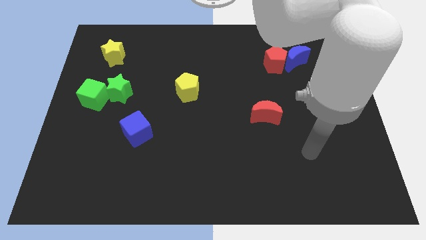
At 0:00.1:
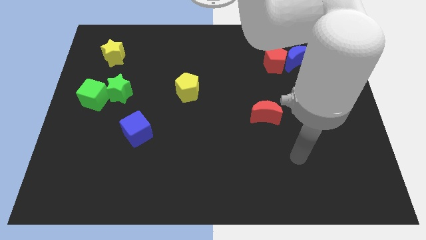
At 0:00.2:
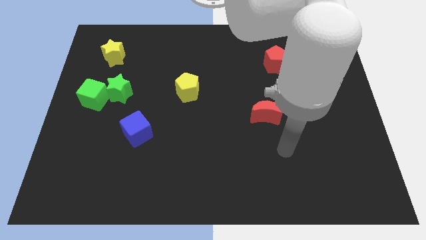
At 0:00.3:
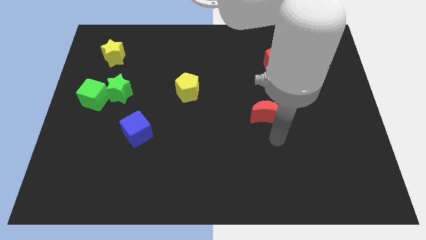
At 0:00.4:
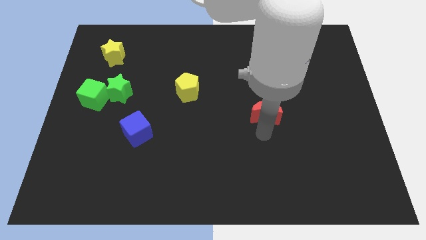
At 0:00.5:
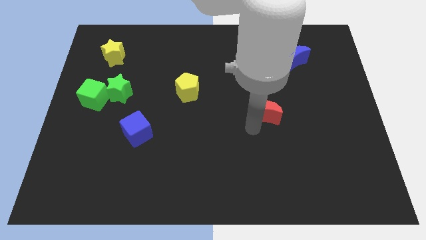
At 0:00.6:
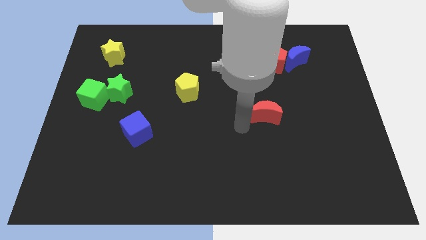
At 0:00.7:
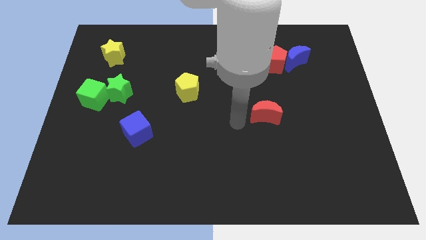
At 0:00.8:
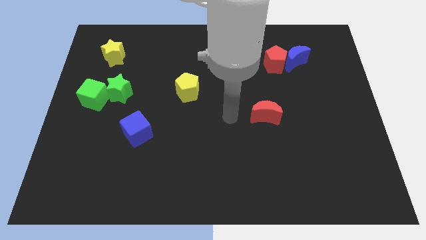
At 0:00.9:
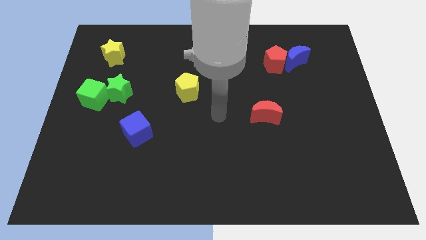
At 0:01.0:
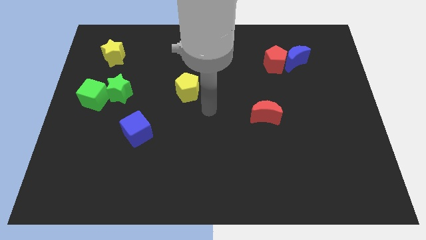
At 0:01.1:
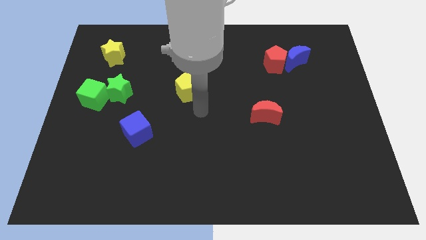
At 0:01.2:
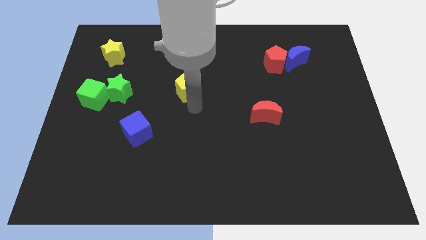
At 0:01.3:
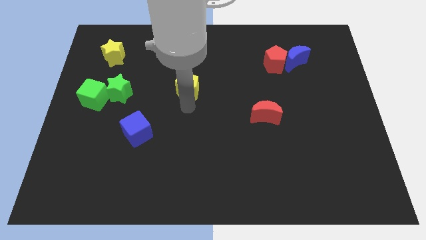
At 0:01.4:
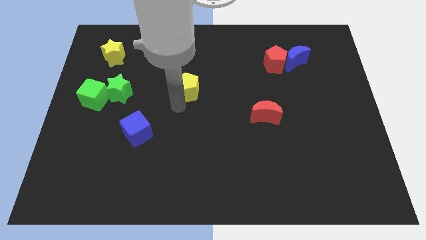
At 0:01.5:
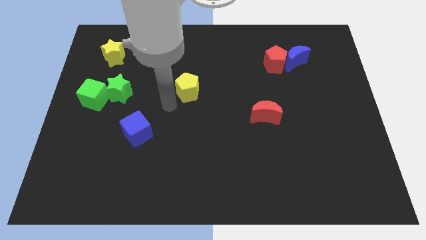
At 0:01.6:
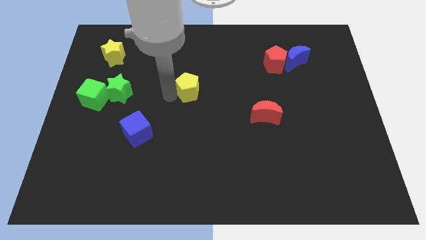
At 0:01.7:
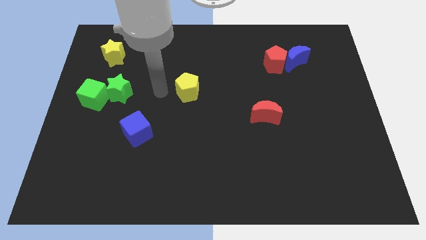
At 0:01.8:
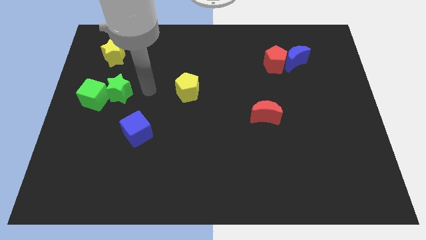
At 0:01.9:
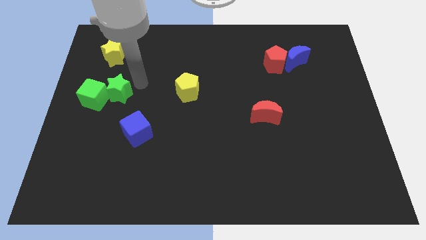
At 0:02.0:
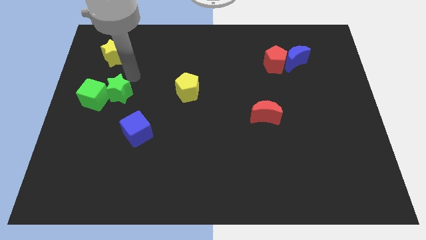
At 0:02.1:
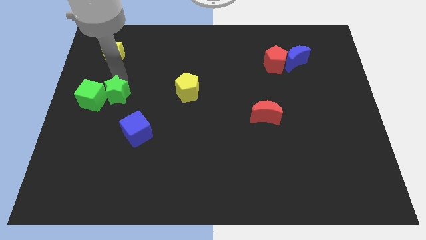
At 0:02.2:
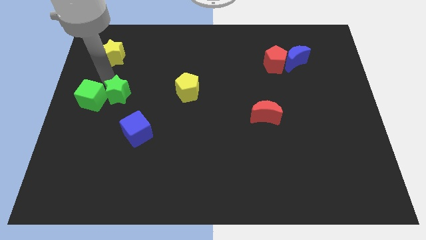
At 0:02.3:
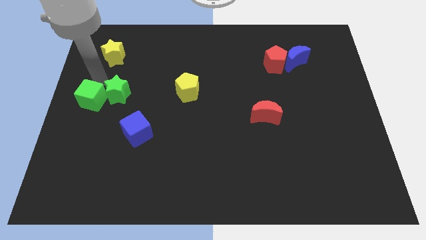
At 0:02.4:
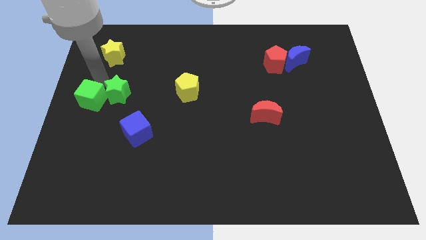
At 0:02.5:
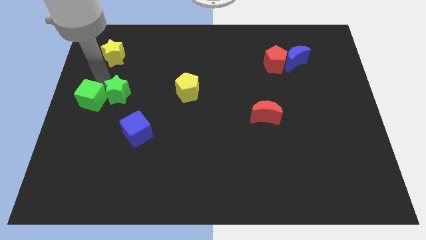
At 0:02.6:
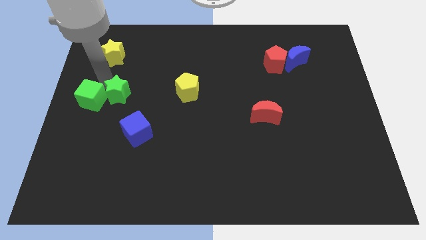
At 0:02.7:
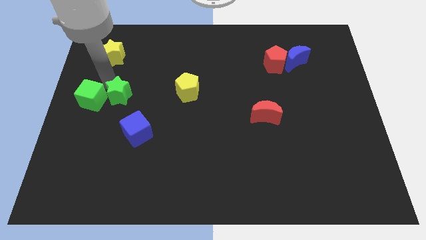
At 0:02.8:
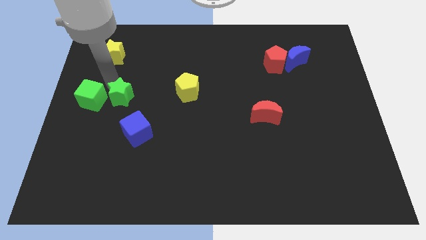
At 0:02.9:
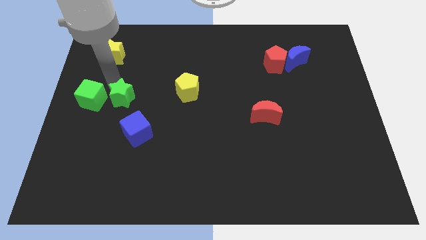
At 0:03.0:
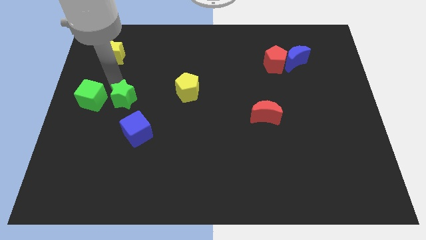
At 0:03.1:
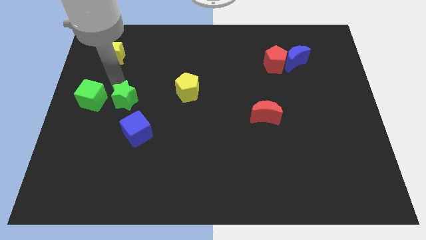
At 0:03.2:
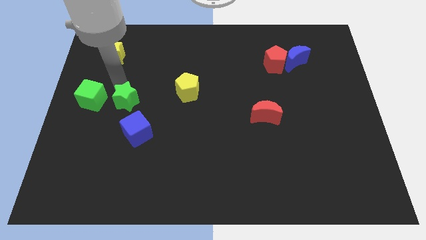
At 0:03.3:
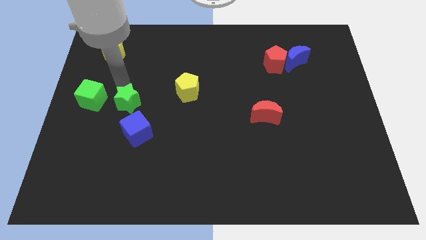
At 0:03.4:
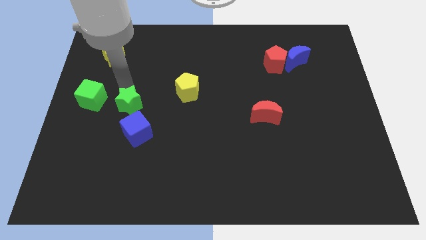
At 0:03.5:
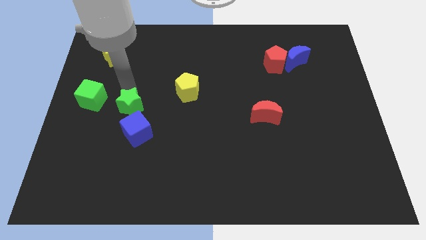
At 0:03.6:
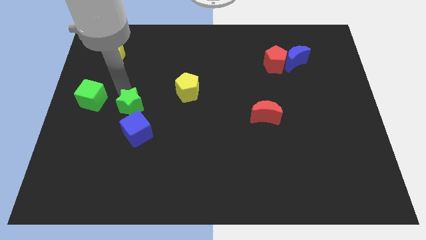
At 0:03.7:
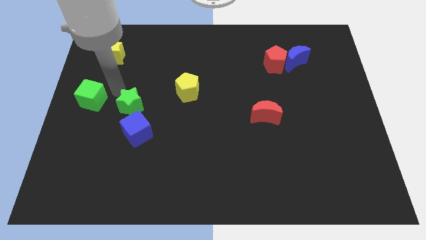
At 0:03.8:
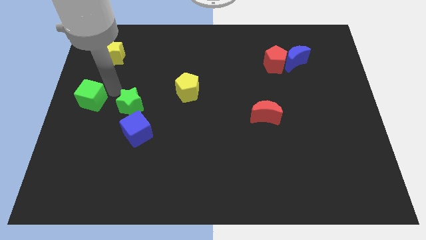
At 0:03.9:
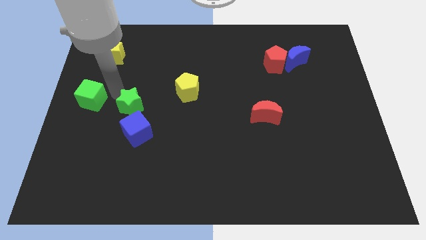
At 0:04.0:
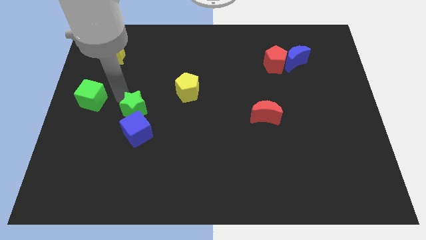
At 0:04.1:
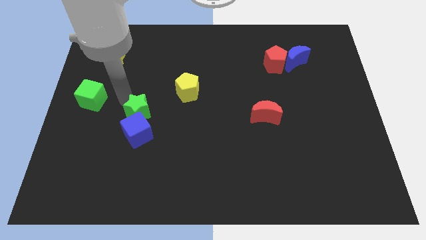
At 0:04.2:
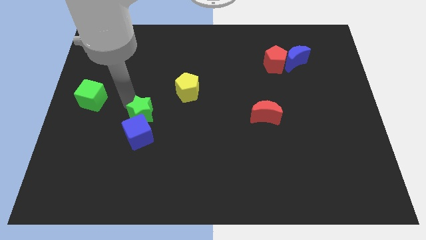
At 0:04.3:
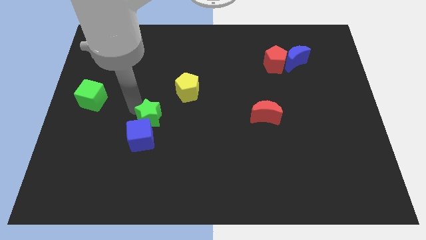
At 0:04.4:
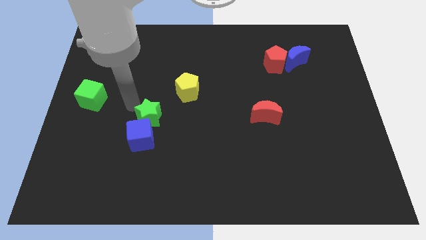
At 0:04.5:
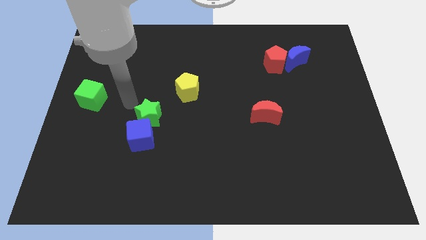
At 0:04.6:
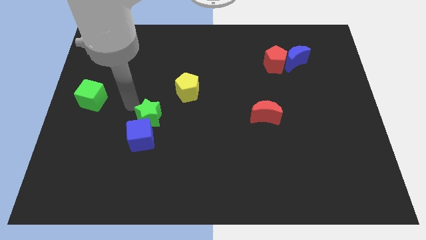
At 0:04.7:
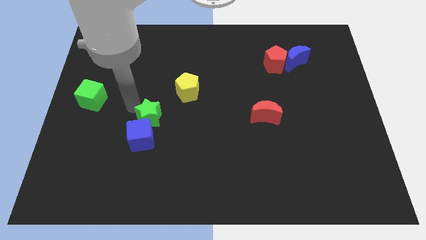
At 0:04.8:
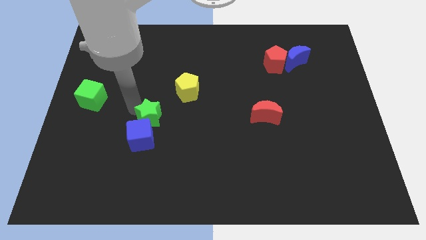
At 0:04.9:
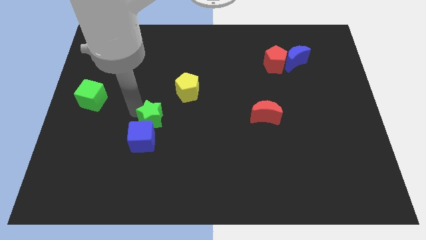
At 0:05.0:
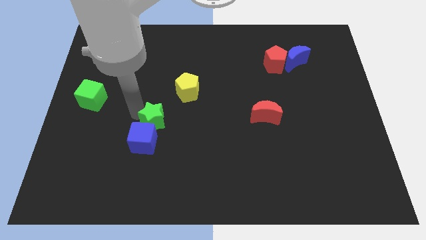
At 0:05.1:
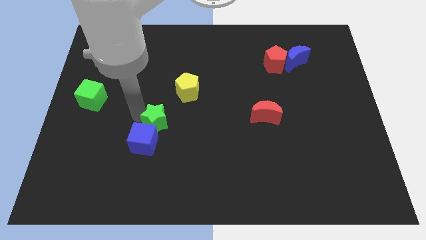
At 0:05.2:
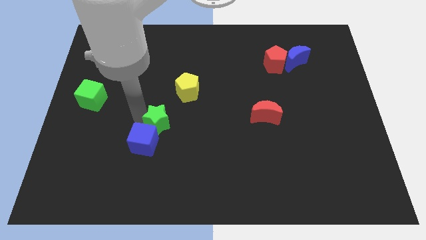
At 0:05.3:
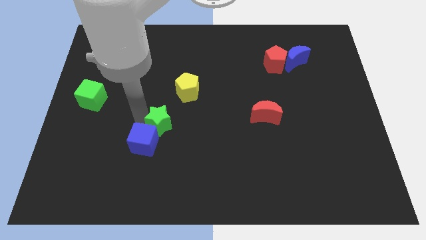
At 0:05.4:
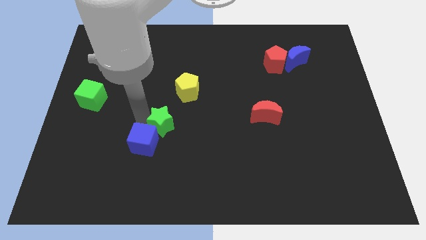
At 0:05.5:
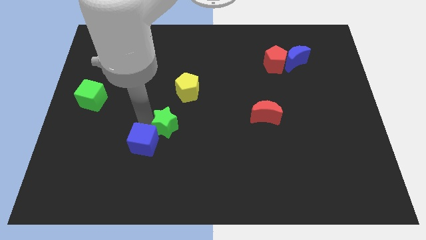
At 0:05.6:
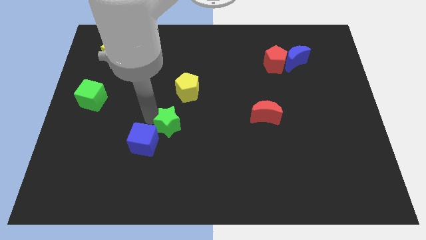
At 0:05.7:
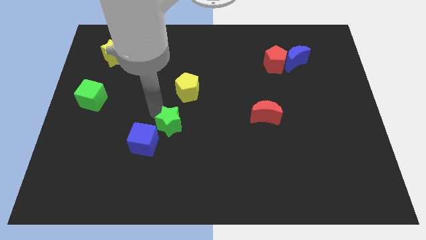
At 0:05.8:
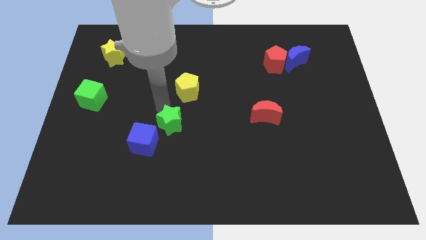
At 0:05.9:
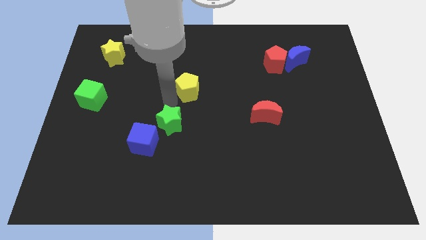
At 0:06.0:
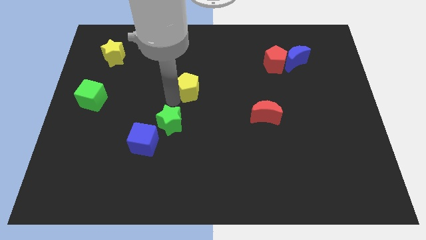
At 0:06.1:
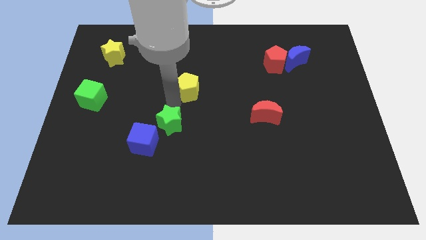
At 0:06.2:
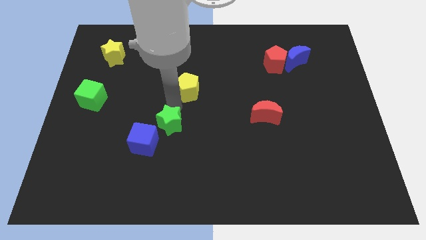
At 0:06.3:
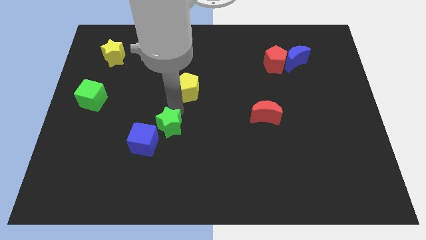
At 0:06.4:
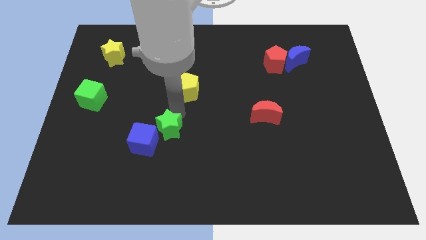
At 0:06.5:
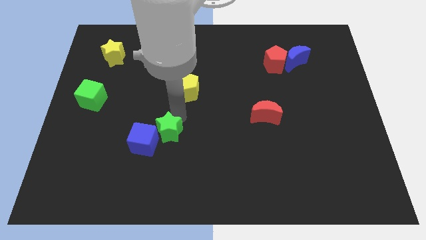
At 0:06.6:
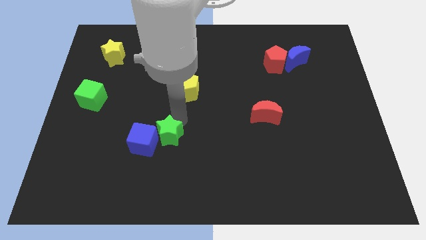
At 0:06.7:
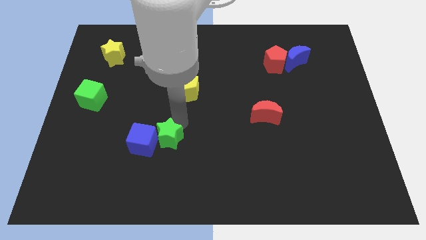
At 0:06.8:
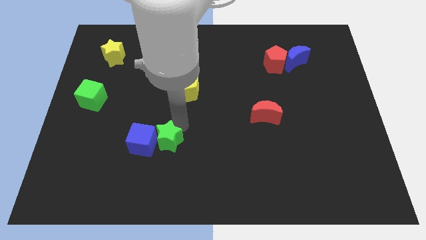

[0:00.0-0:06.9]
move the green star to the bottom right side of the blue cube

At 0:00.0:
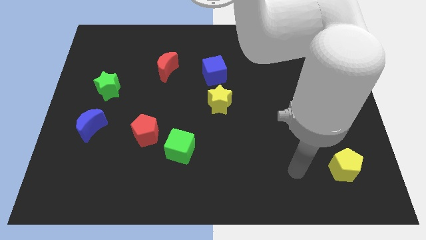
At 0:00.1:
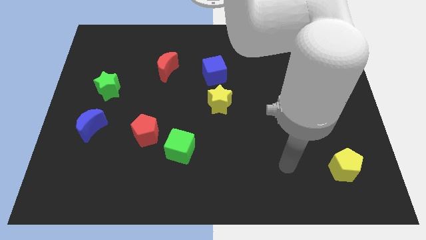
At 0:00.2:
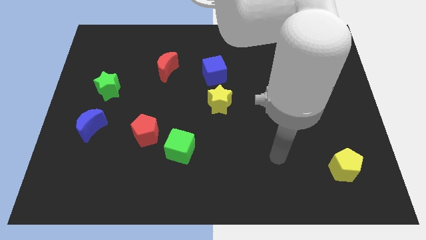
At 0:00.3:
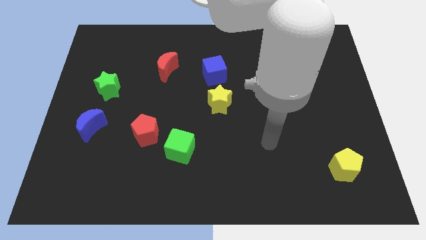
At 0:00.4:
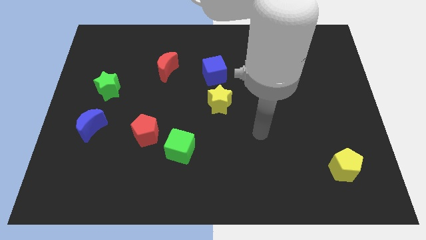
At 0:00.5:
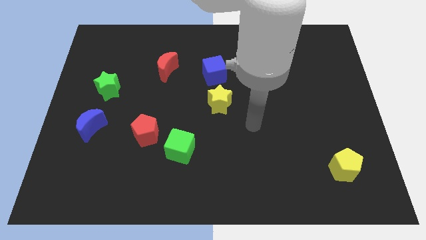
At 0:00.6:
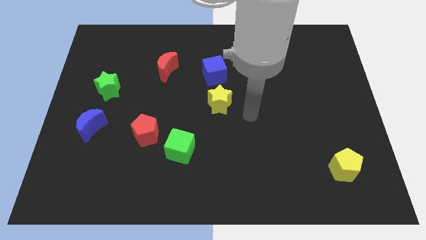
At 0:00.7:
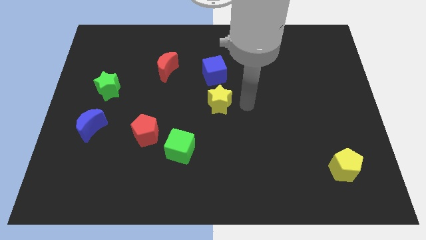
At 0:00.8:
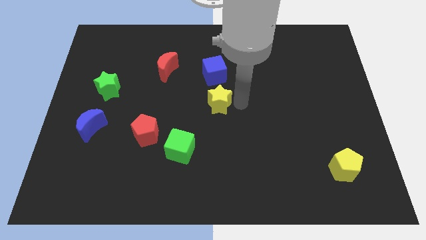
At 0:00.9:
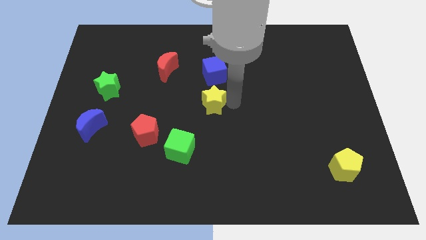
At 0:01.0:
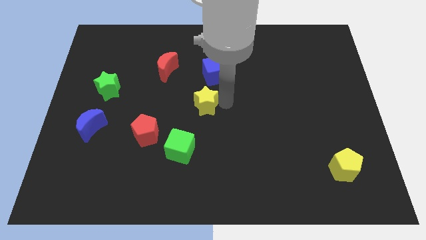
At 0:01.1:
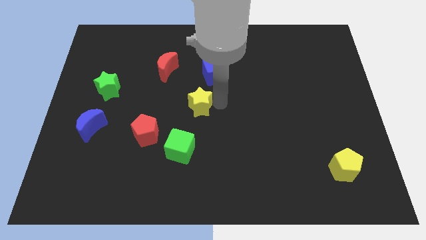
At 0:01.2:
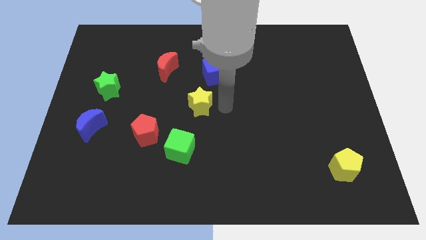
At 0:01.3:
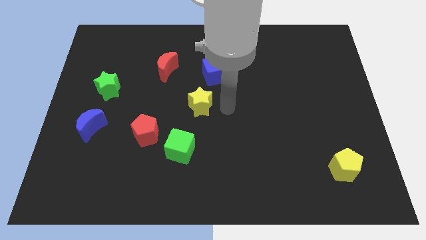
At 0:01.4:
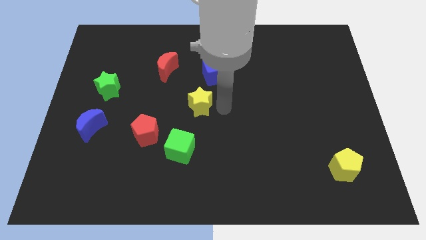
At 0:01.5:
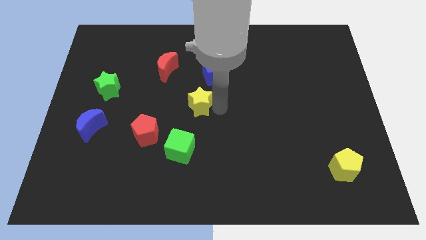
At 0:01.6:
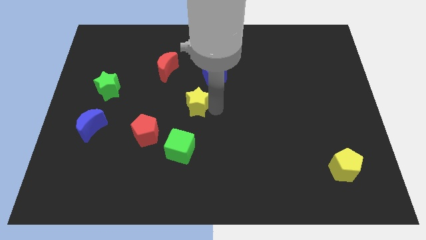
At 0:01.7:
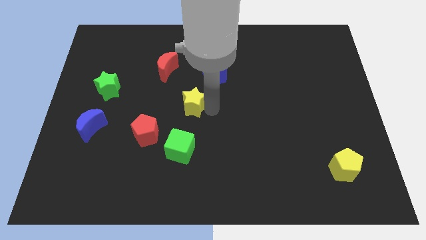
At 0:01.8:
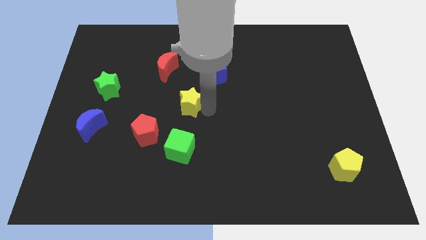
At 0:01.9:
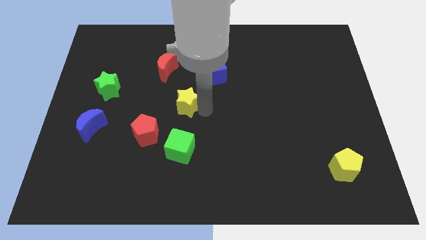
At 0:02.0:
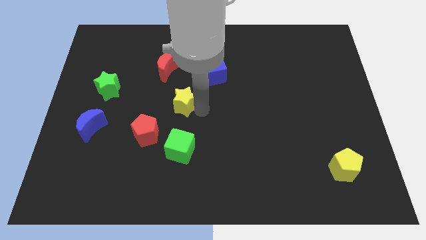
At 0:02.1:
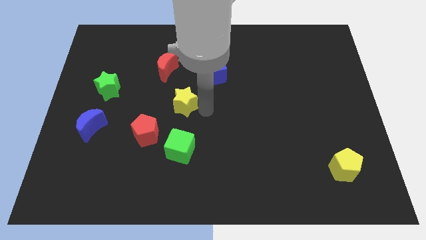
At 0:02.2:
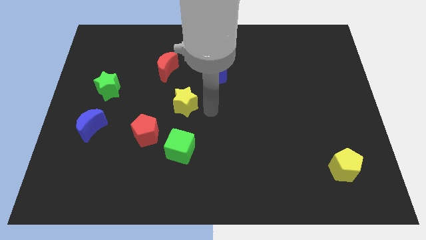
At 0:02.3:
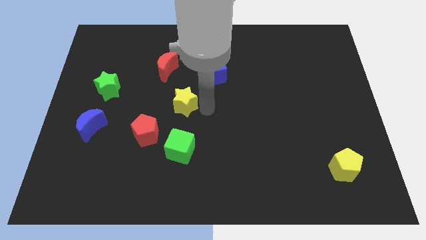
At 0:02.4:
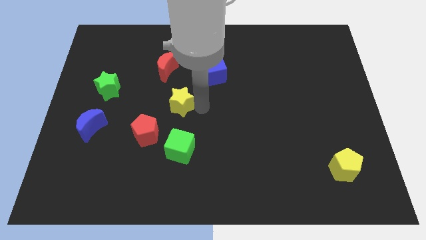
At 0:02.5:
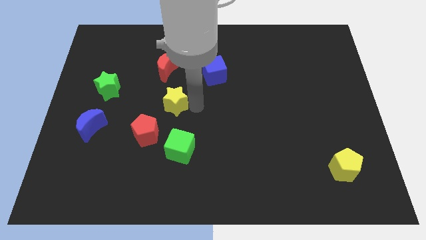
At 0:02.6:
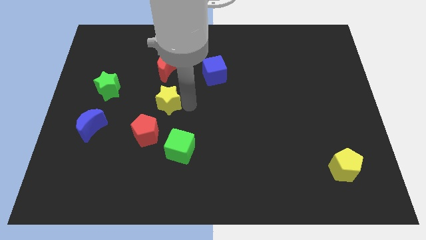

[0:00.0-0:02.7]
slide the yellow star above the red pentagon
